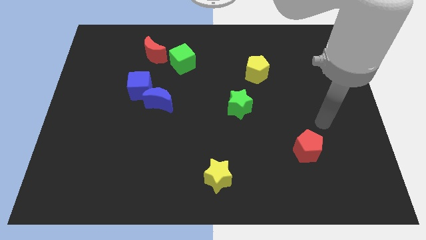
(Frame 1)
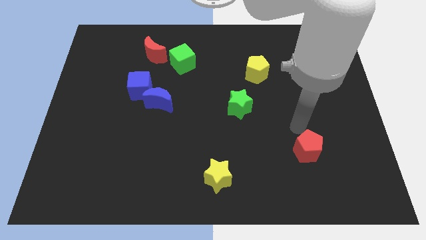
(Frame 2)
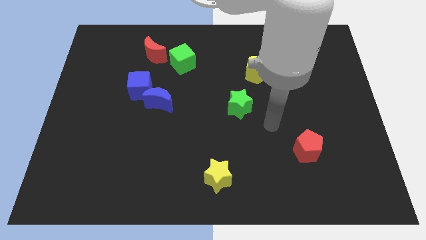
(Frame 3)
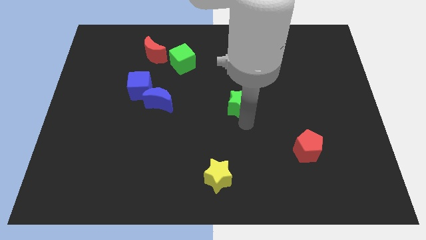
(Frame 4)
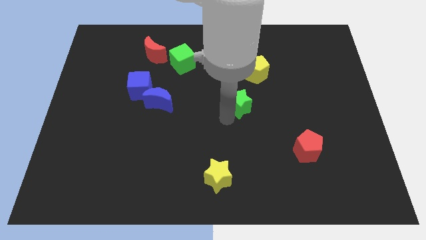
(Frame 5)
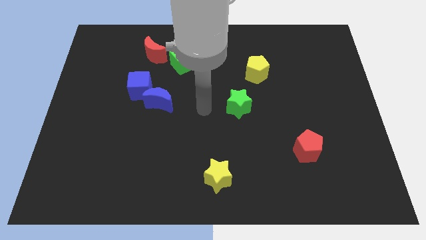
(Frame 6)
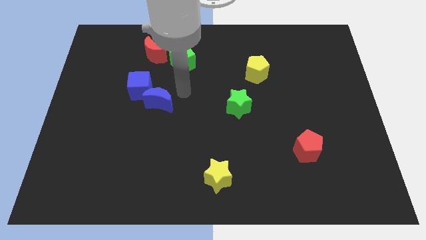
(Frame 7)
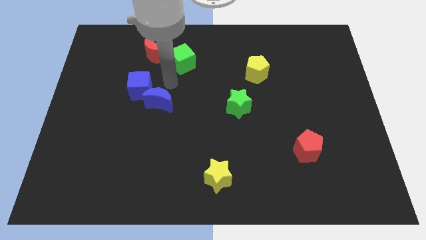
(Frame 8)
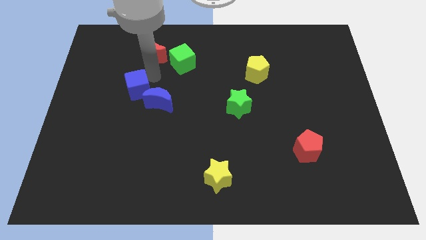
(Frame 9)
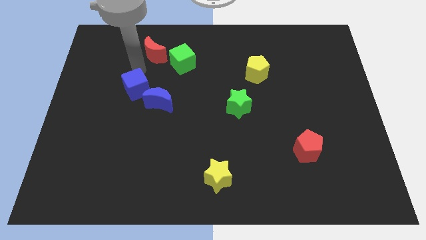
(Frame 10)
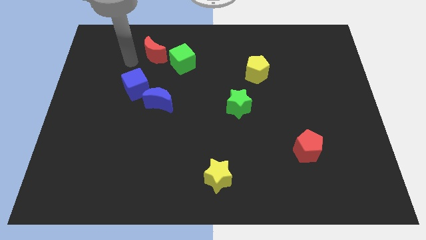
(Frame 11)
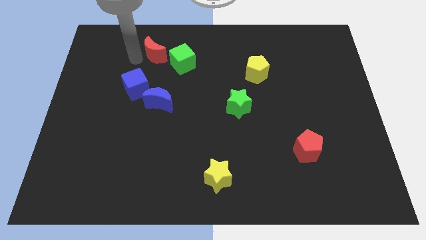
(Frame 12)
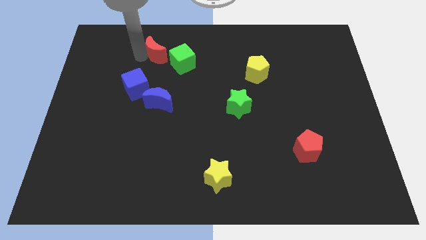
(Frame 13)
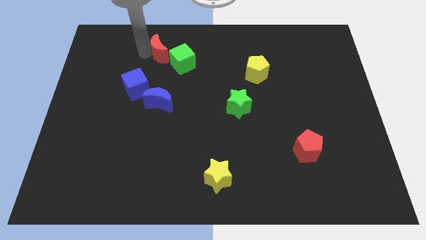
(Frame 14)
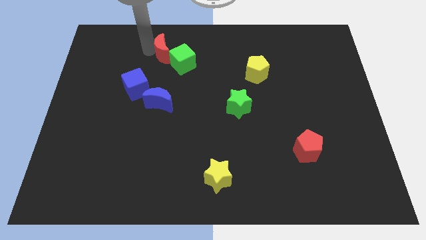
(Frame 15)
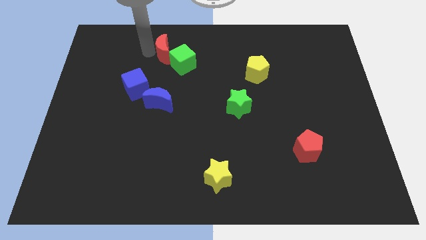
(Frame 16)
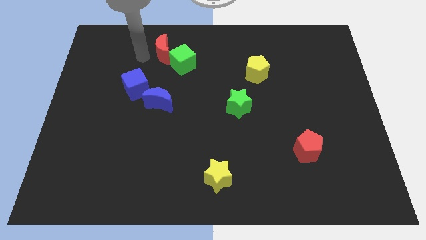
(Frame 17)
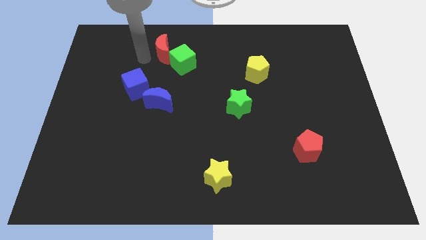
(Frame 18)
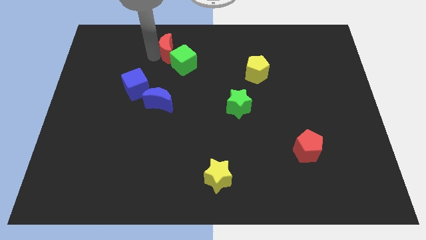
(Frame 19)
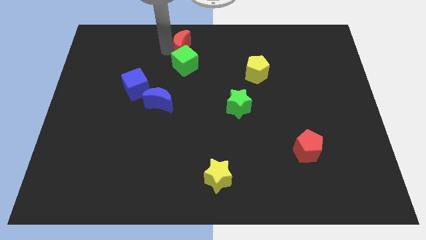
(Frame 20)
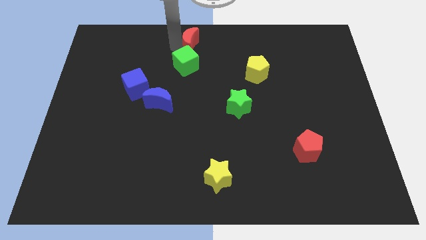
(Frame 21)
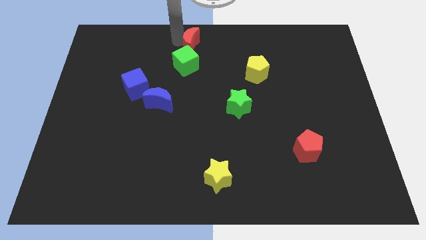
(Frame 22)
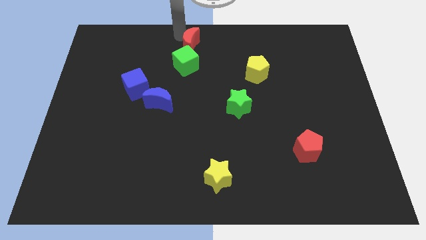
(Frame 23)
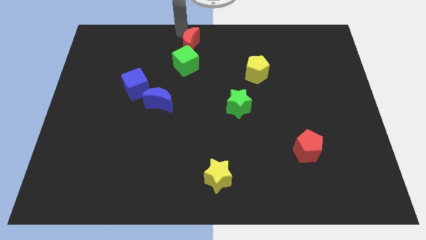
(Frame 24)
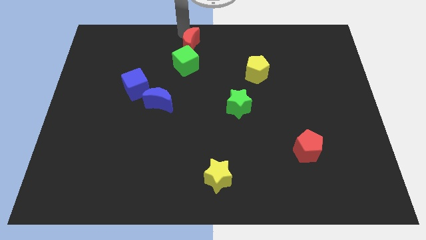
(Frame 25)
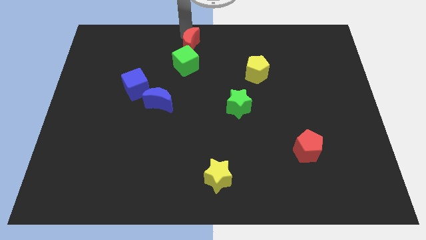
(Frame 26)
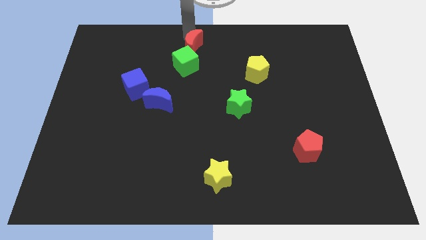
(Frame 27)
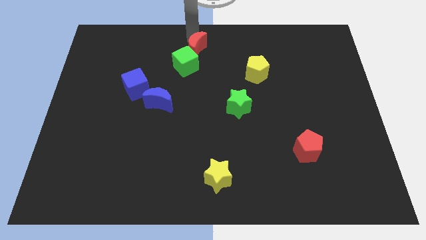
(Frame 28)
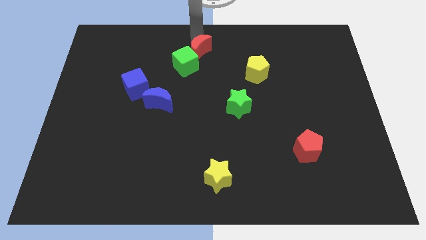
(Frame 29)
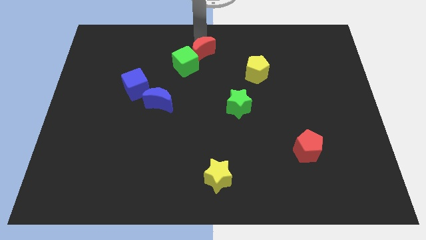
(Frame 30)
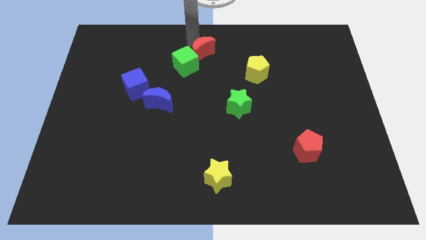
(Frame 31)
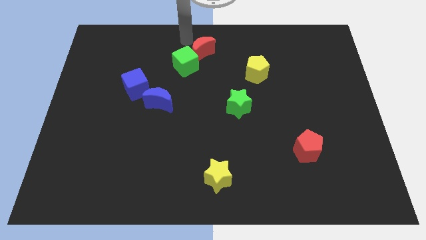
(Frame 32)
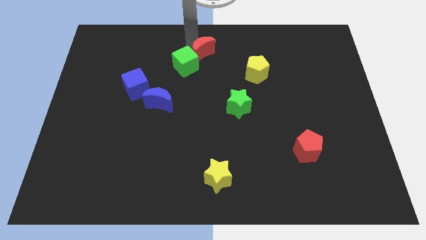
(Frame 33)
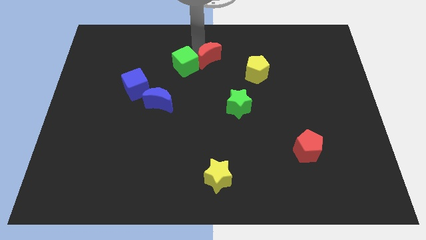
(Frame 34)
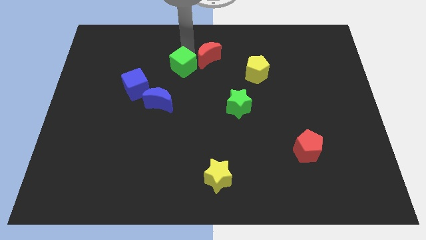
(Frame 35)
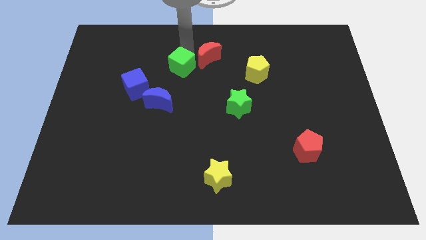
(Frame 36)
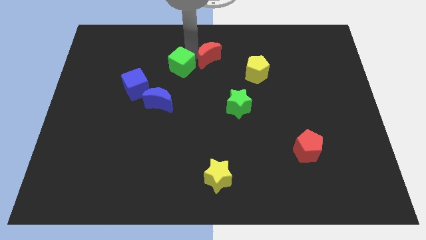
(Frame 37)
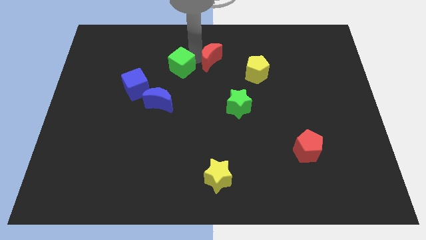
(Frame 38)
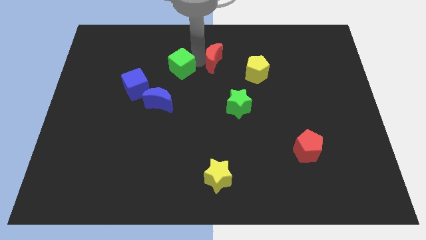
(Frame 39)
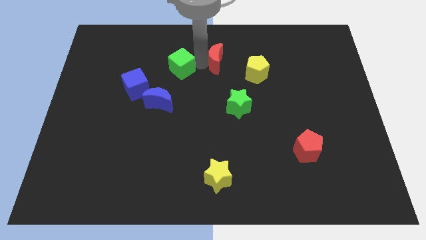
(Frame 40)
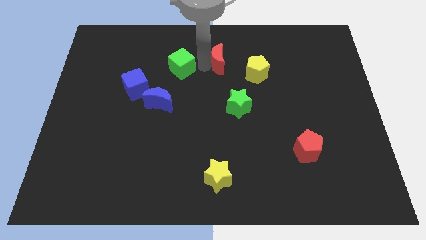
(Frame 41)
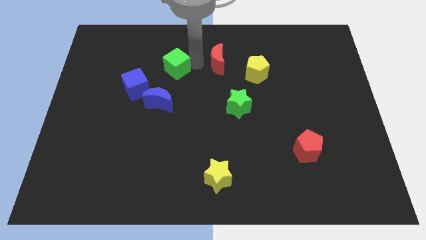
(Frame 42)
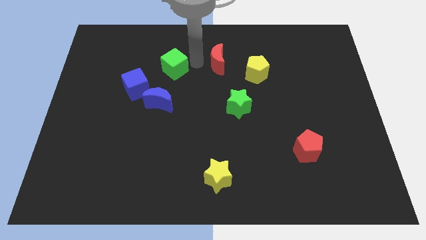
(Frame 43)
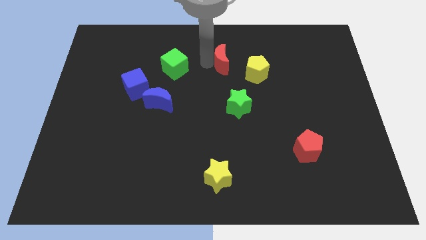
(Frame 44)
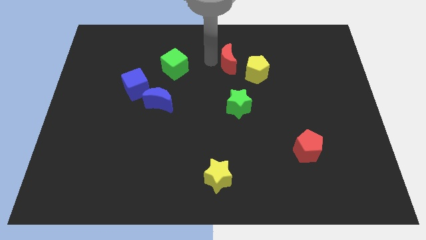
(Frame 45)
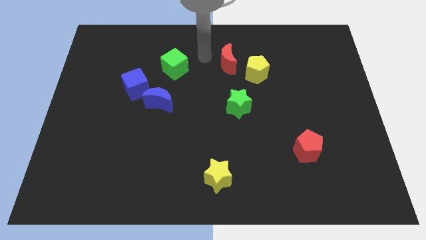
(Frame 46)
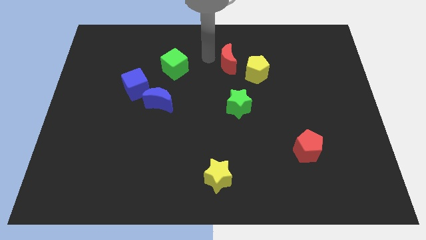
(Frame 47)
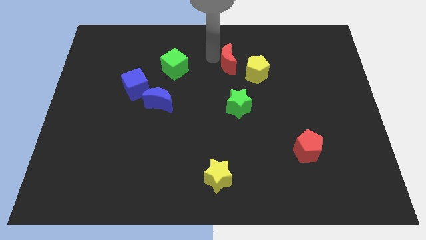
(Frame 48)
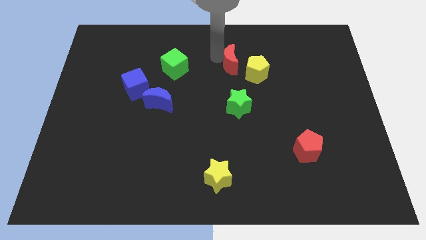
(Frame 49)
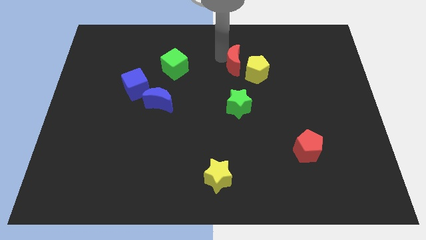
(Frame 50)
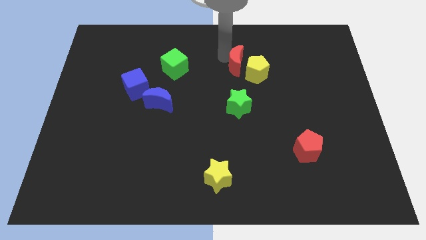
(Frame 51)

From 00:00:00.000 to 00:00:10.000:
put the red moon to the yellow pentagon

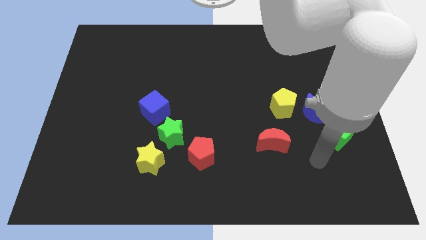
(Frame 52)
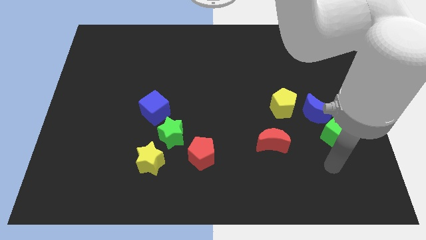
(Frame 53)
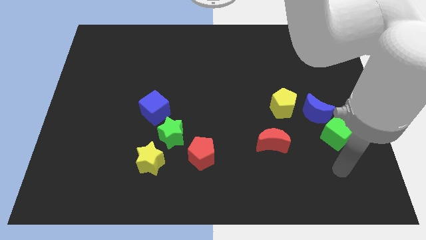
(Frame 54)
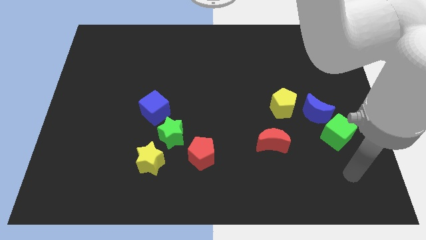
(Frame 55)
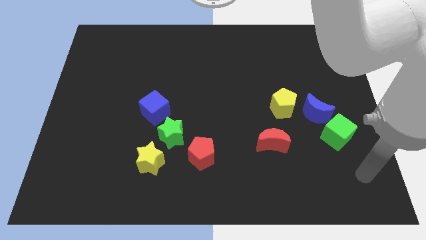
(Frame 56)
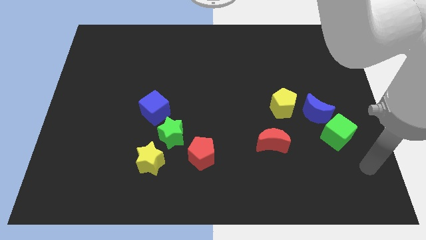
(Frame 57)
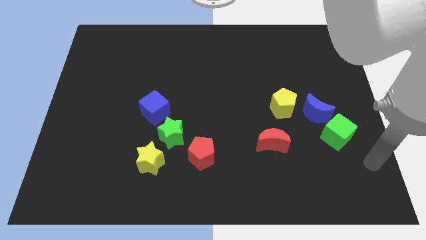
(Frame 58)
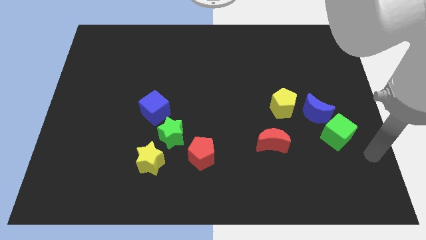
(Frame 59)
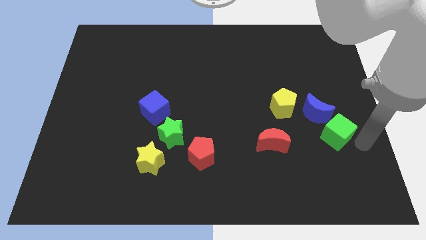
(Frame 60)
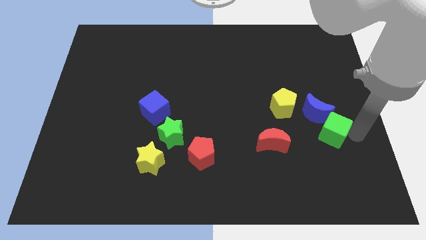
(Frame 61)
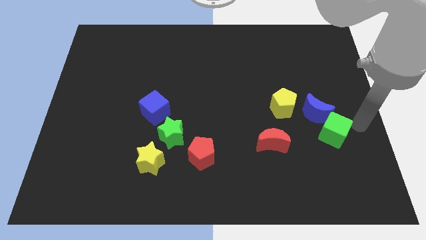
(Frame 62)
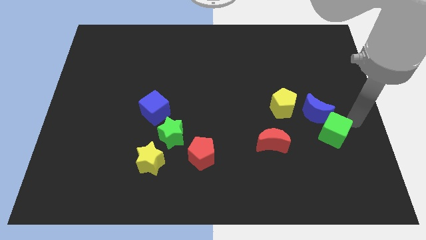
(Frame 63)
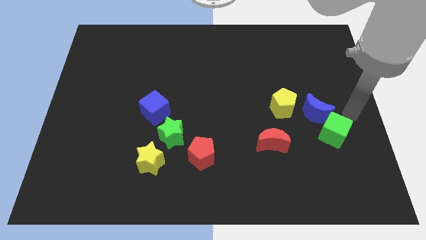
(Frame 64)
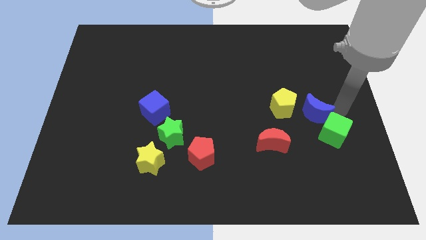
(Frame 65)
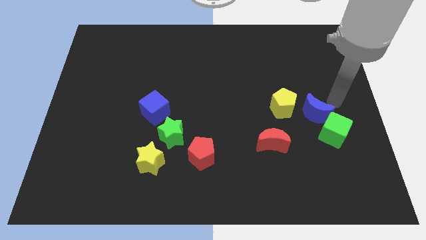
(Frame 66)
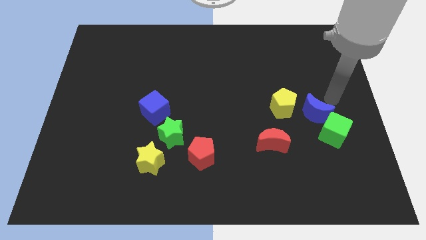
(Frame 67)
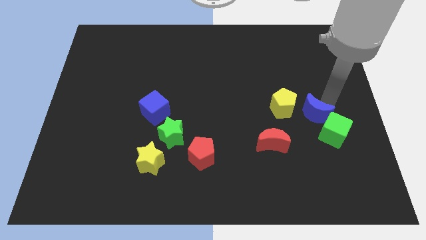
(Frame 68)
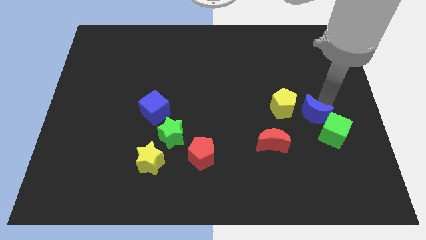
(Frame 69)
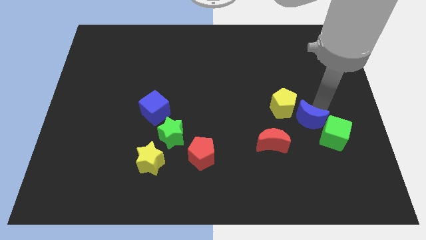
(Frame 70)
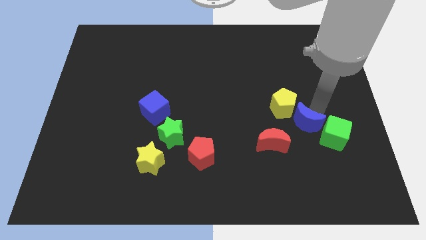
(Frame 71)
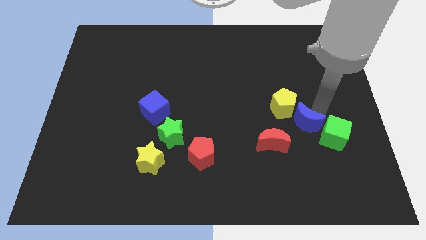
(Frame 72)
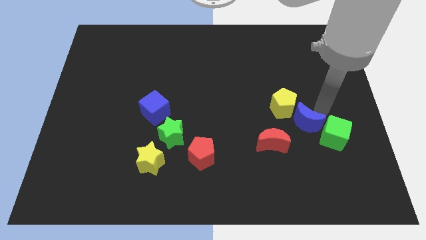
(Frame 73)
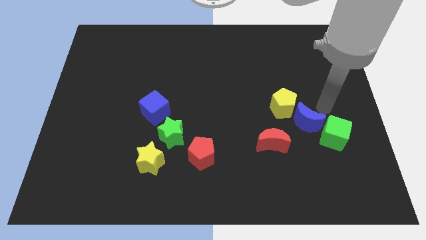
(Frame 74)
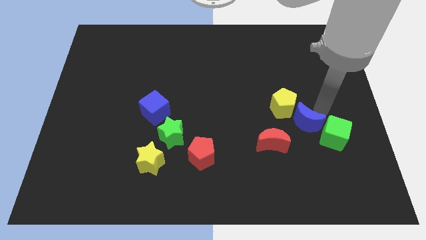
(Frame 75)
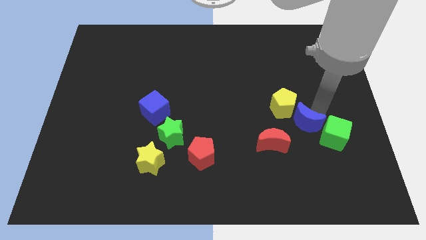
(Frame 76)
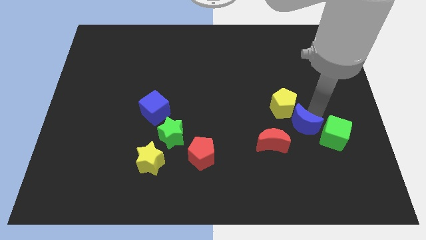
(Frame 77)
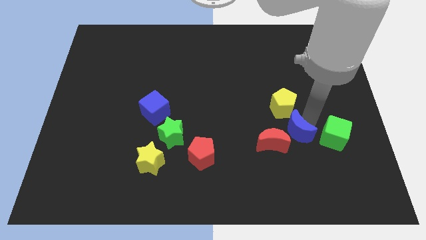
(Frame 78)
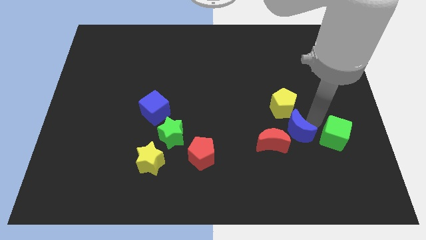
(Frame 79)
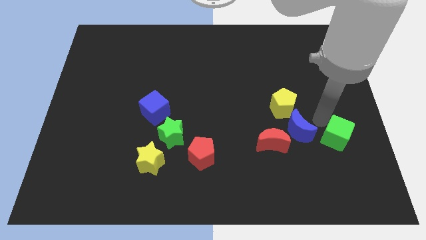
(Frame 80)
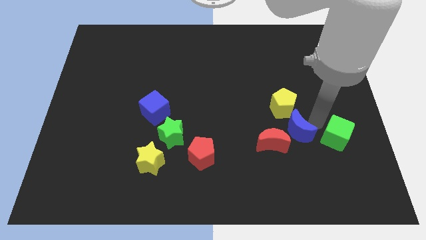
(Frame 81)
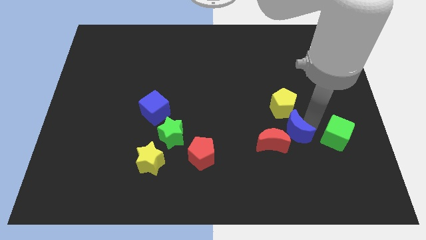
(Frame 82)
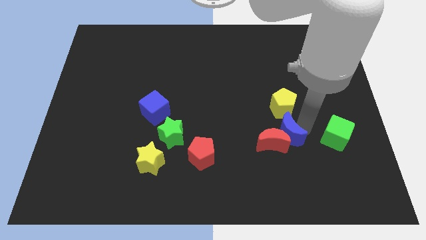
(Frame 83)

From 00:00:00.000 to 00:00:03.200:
put the blue moon to the red moon

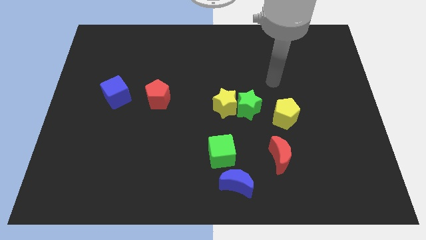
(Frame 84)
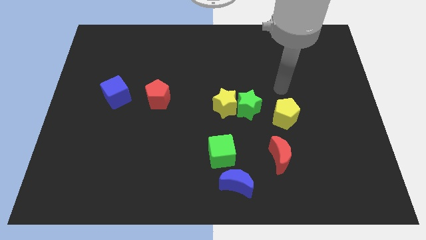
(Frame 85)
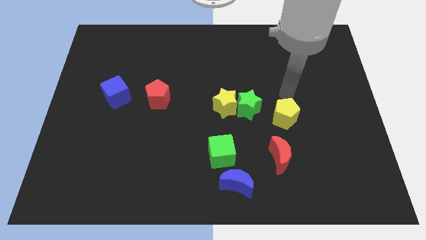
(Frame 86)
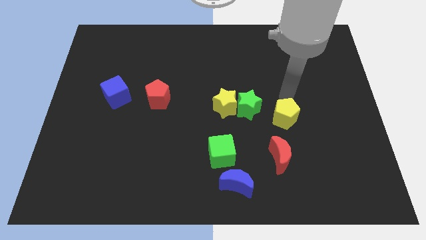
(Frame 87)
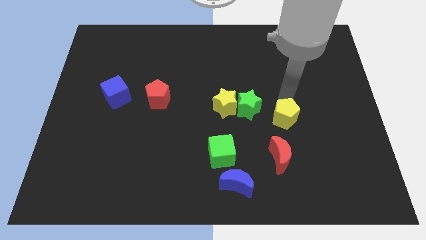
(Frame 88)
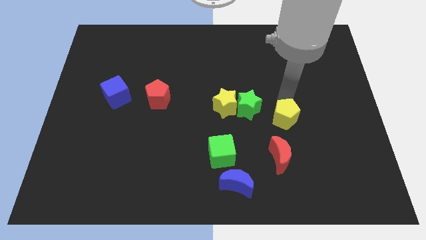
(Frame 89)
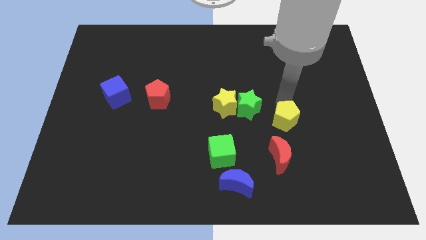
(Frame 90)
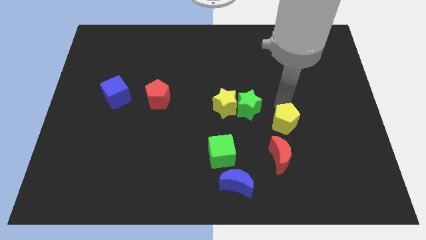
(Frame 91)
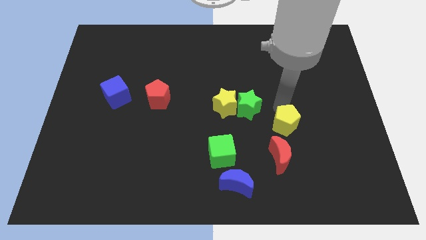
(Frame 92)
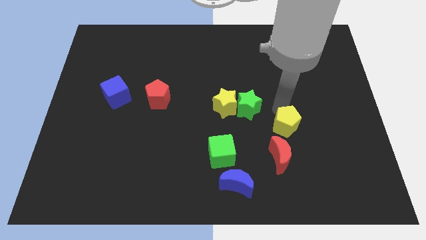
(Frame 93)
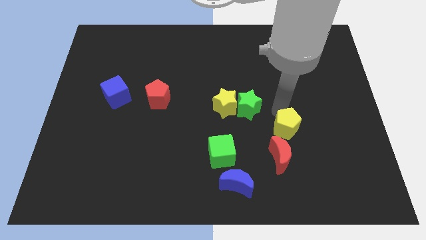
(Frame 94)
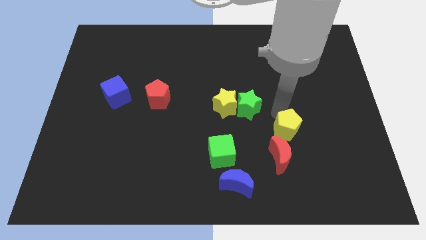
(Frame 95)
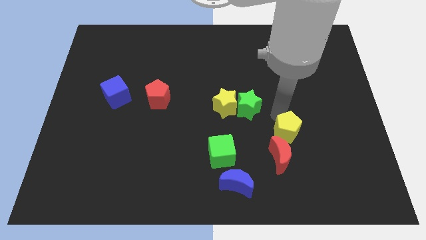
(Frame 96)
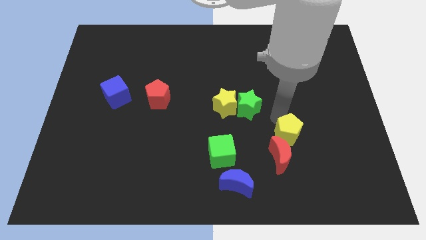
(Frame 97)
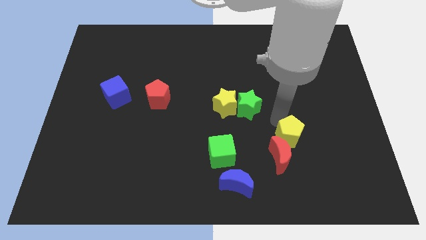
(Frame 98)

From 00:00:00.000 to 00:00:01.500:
put the yellow pentagon close to the red moon
